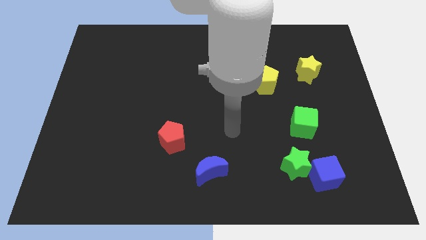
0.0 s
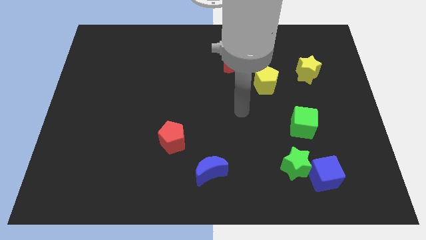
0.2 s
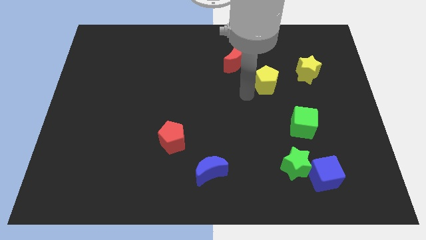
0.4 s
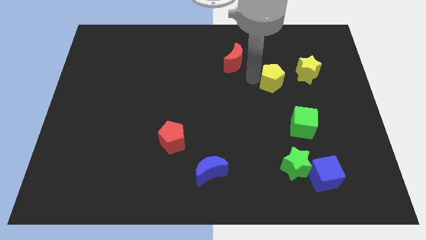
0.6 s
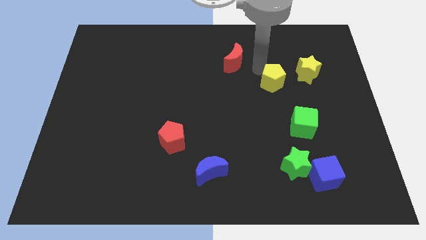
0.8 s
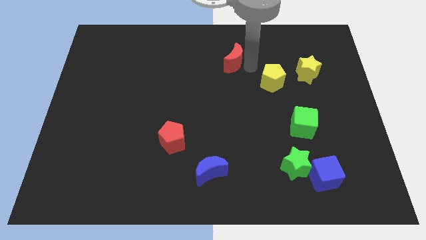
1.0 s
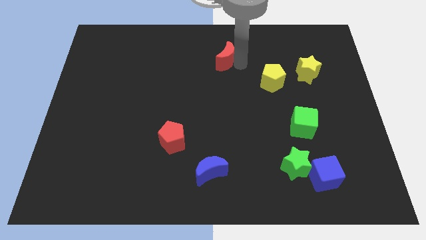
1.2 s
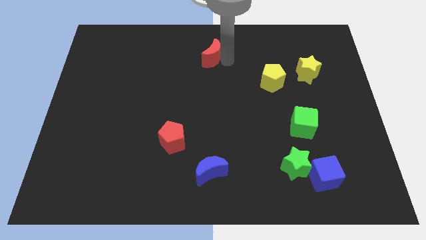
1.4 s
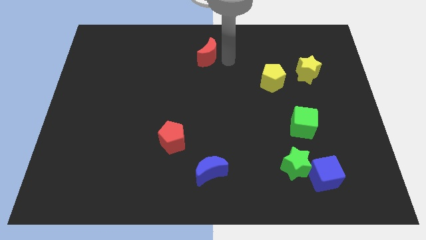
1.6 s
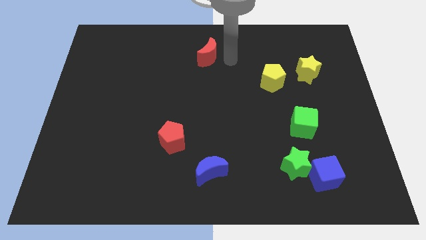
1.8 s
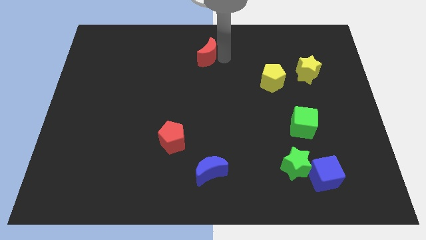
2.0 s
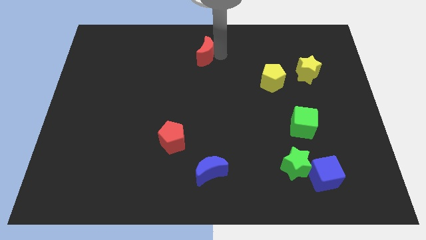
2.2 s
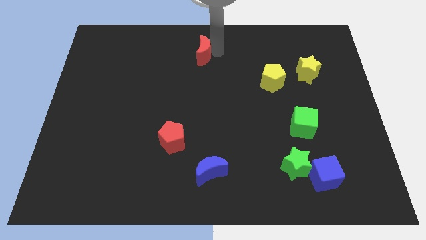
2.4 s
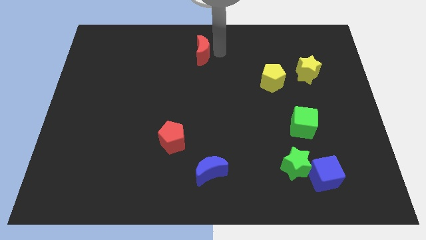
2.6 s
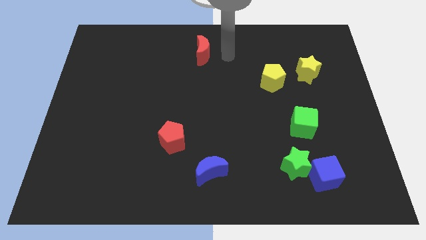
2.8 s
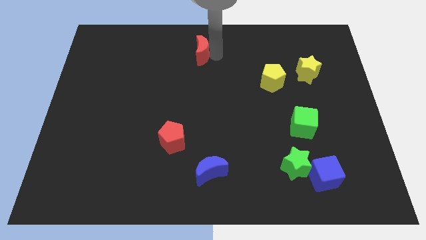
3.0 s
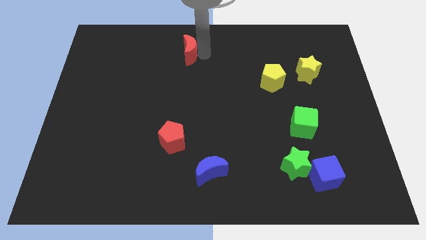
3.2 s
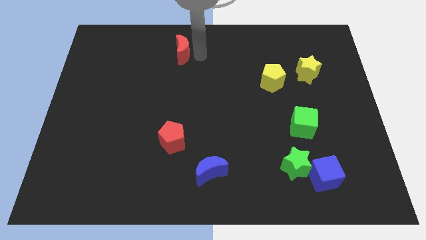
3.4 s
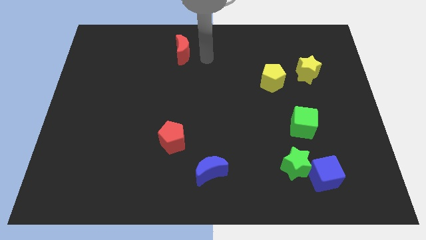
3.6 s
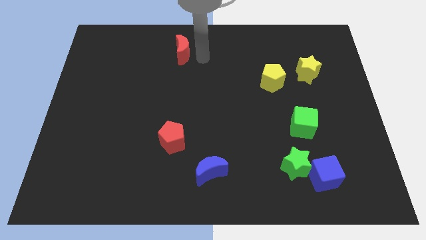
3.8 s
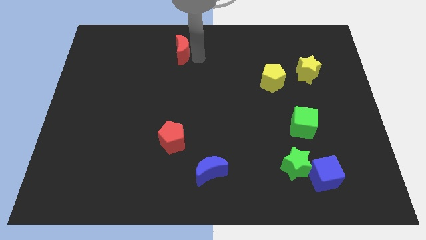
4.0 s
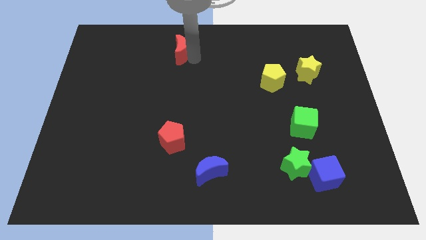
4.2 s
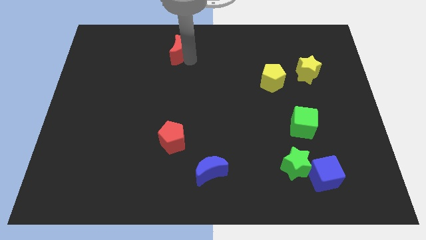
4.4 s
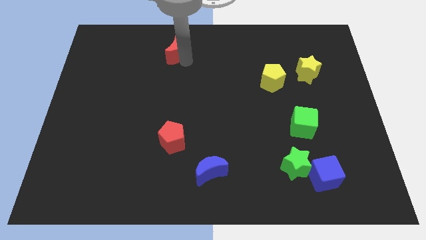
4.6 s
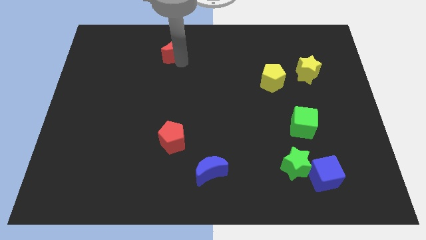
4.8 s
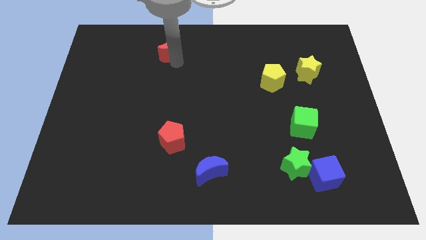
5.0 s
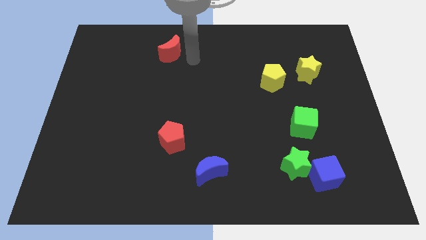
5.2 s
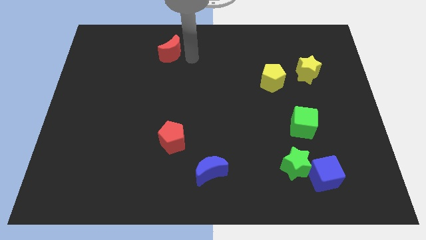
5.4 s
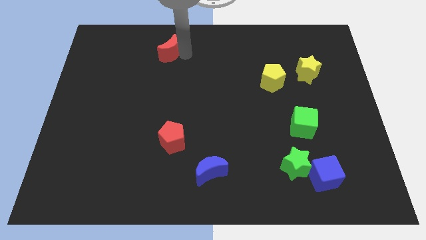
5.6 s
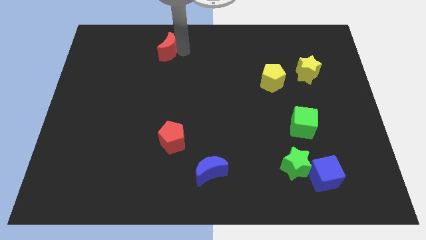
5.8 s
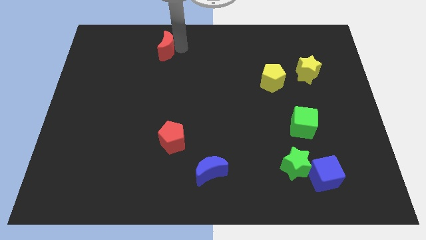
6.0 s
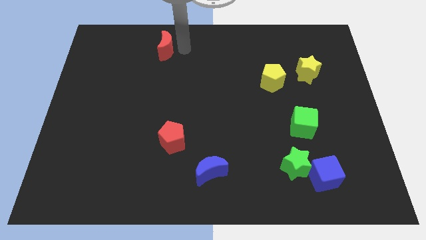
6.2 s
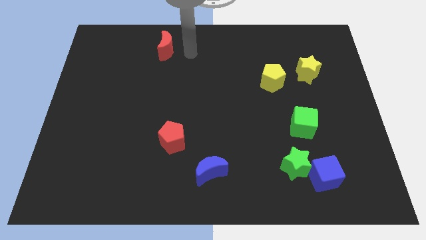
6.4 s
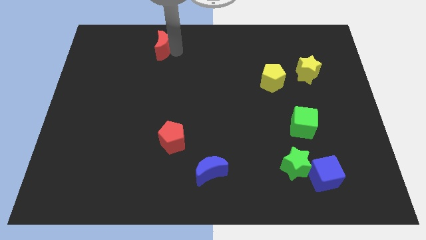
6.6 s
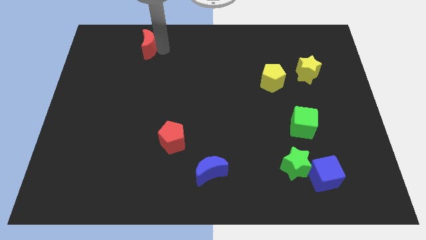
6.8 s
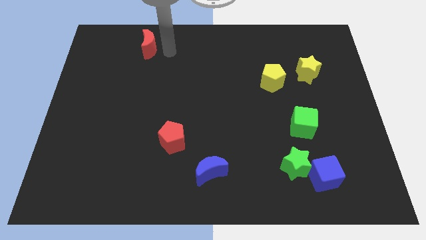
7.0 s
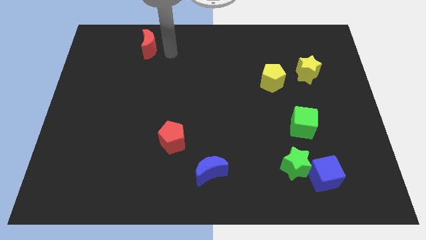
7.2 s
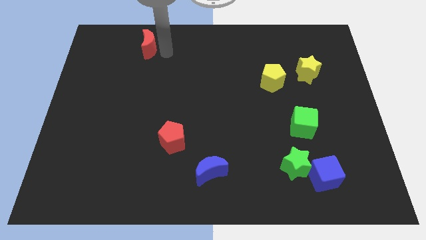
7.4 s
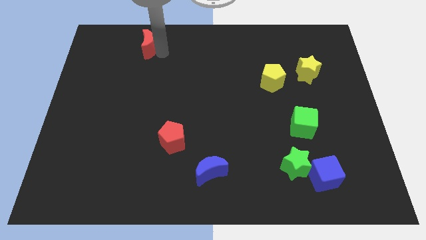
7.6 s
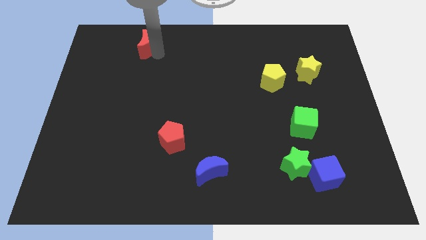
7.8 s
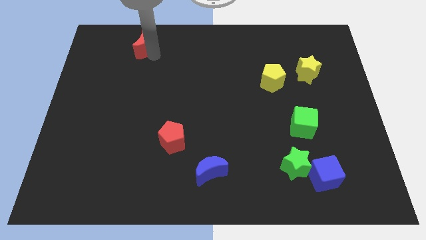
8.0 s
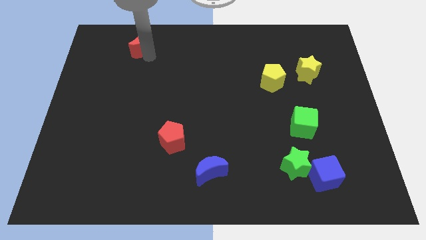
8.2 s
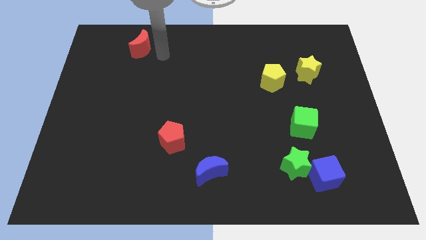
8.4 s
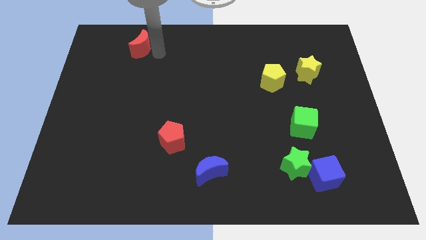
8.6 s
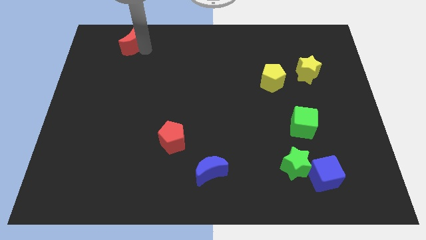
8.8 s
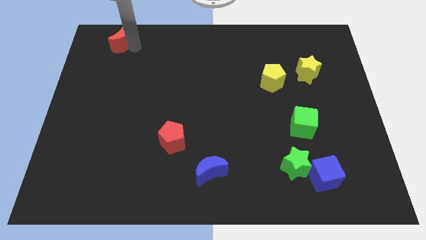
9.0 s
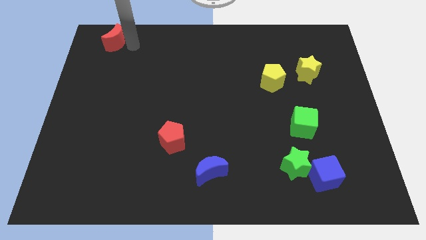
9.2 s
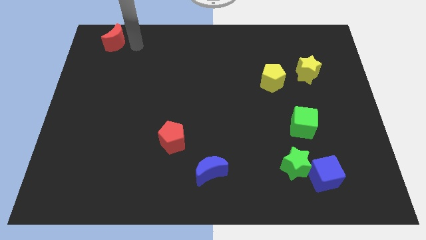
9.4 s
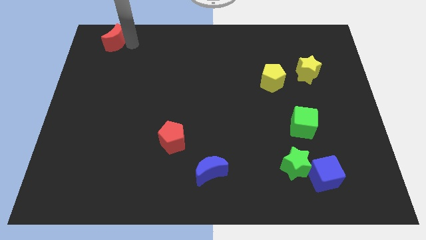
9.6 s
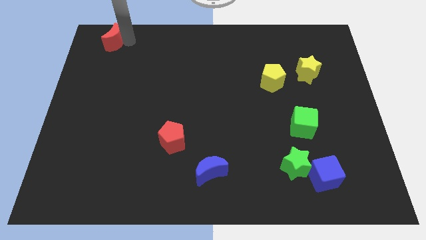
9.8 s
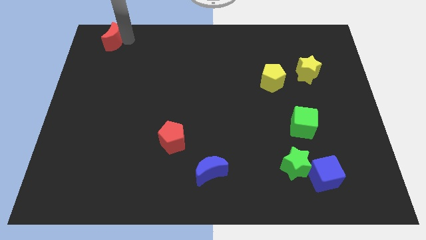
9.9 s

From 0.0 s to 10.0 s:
slide the red moon to the upper left corner

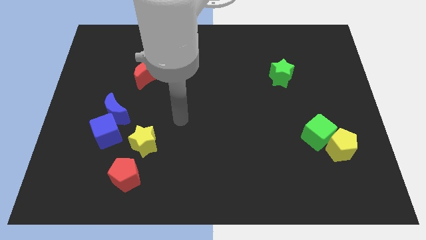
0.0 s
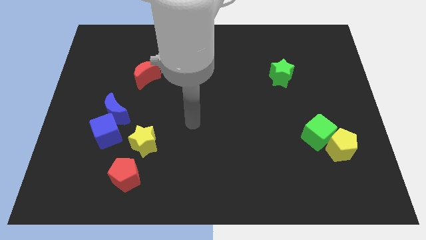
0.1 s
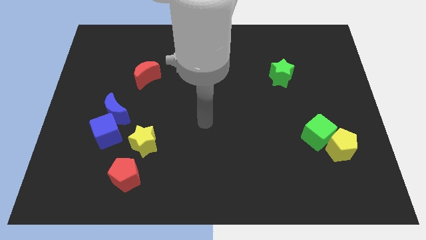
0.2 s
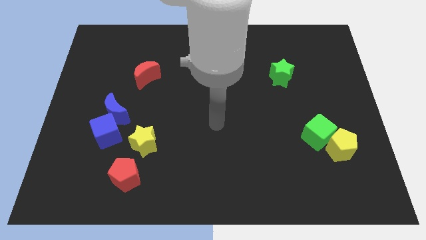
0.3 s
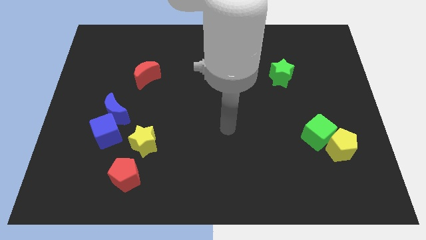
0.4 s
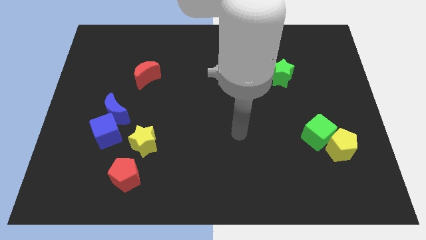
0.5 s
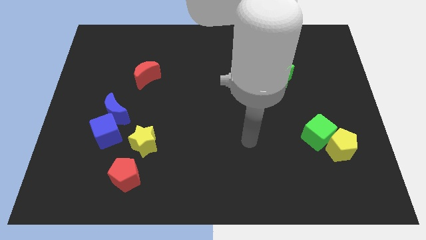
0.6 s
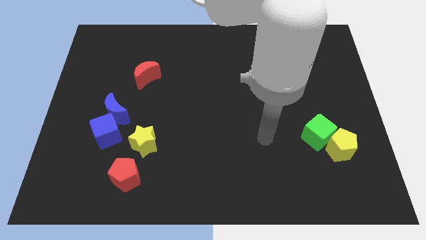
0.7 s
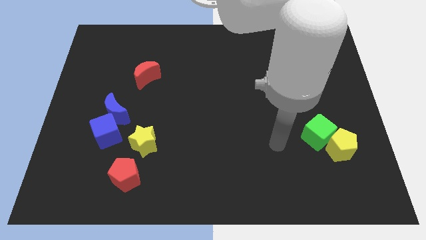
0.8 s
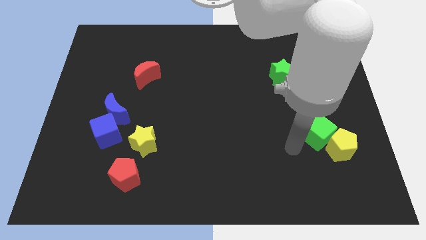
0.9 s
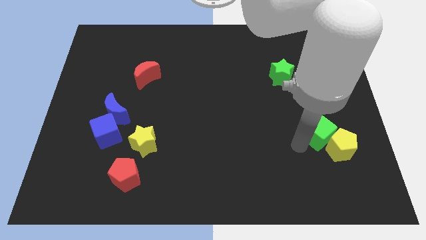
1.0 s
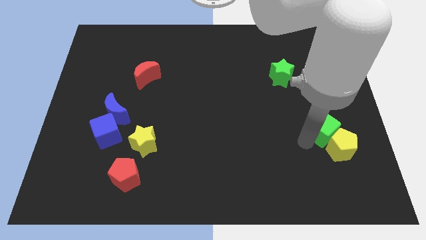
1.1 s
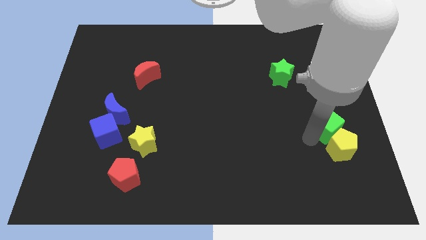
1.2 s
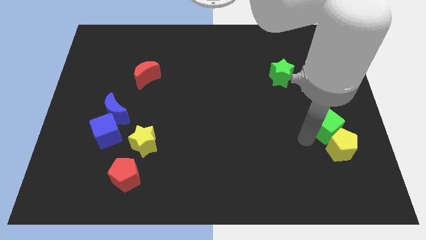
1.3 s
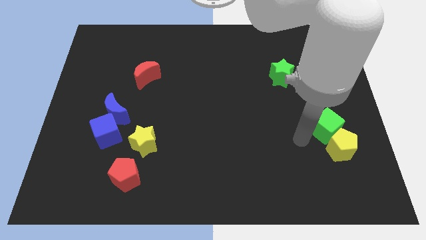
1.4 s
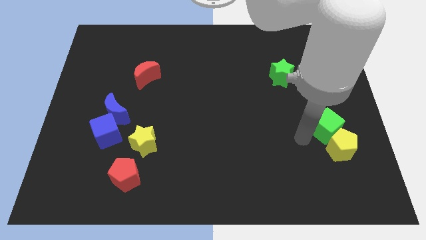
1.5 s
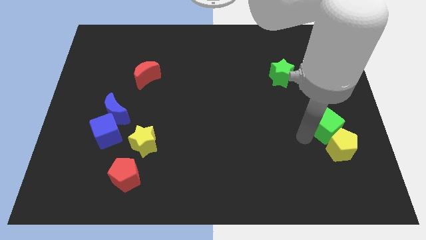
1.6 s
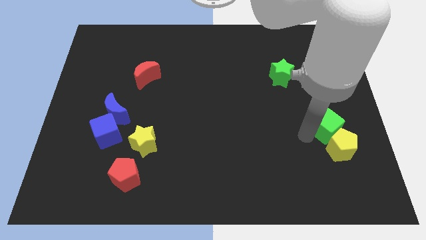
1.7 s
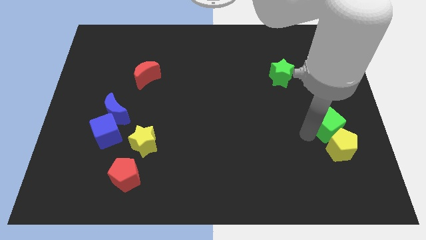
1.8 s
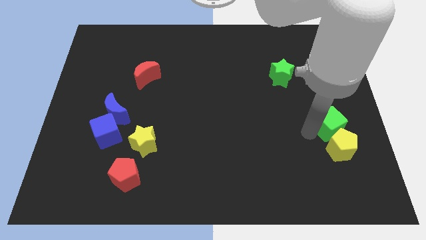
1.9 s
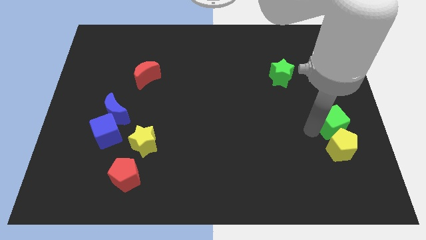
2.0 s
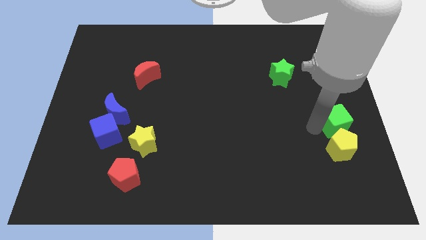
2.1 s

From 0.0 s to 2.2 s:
put the green cube to the center right
